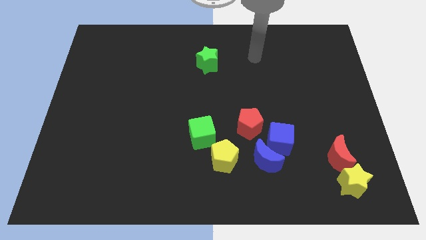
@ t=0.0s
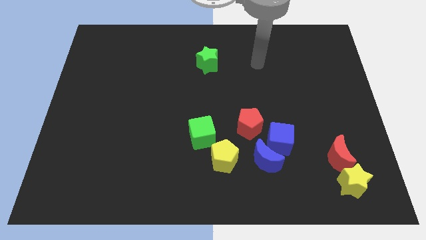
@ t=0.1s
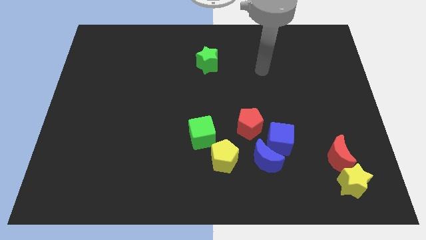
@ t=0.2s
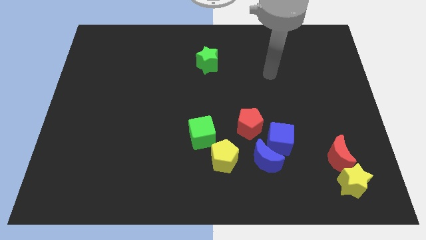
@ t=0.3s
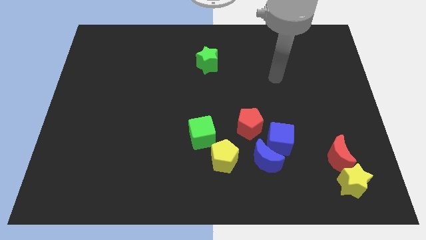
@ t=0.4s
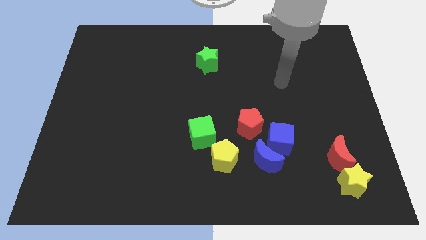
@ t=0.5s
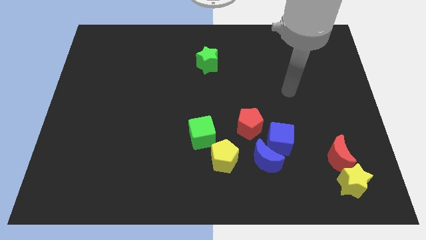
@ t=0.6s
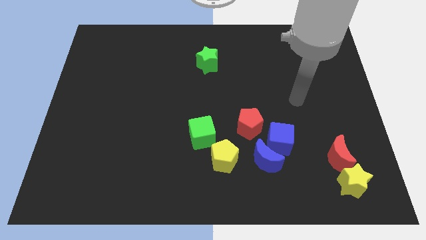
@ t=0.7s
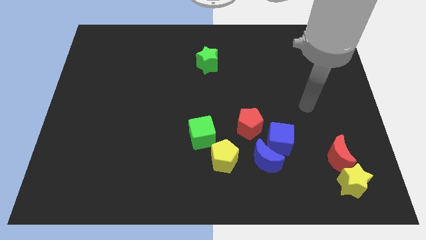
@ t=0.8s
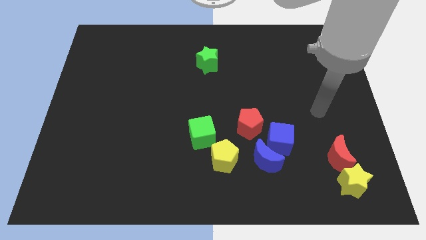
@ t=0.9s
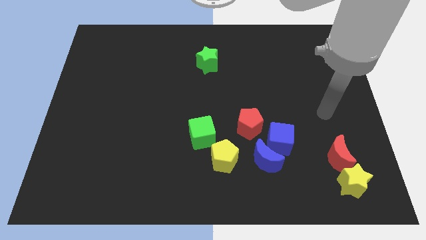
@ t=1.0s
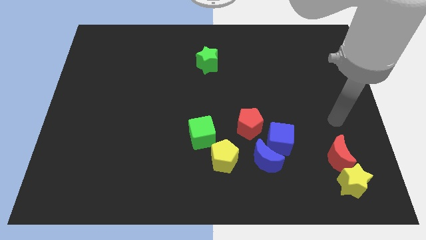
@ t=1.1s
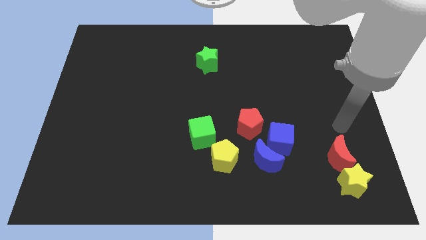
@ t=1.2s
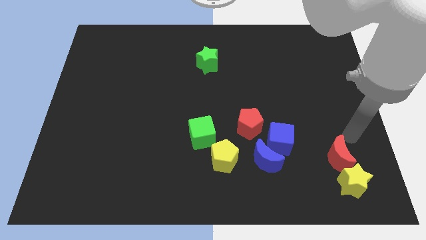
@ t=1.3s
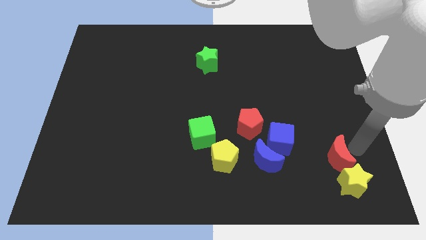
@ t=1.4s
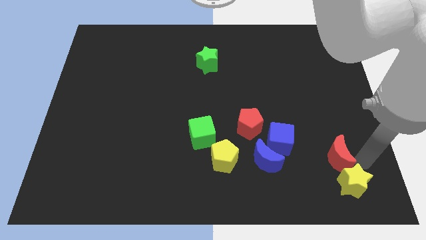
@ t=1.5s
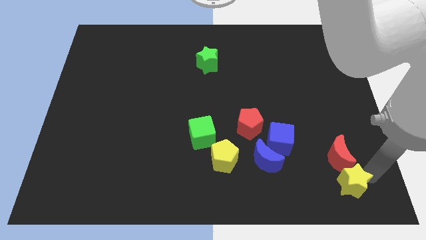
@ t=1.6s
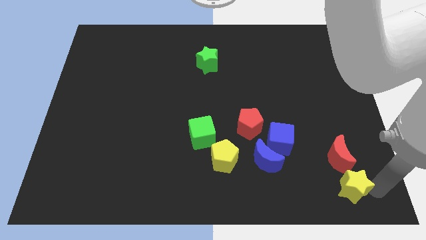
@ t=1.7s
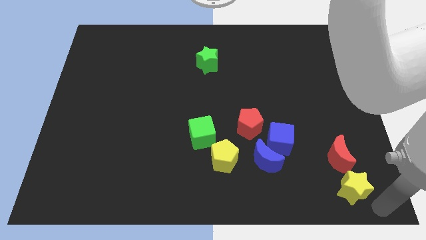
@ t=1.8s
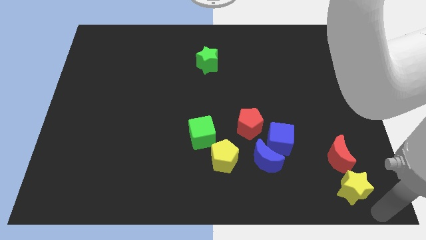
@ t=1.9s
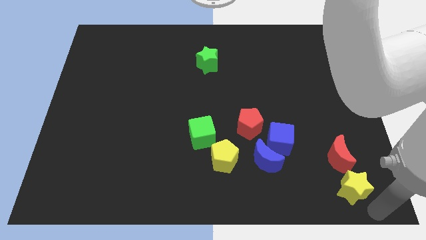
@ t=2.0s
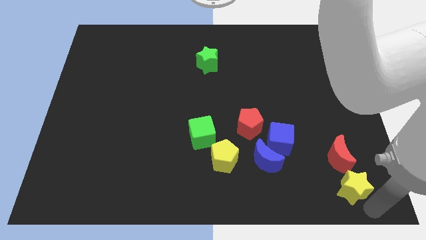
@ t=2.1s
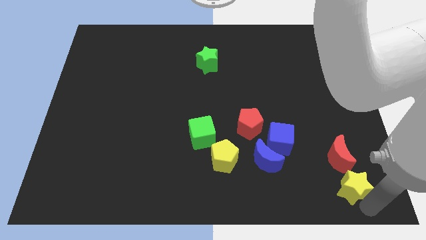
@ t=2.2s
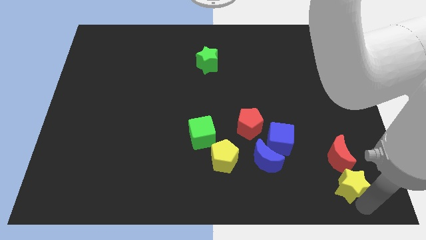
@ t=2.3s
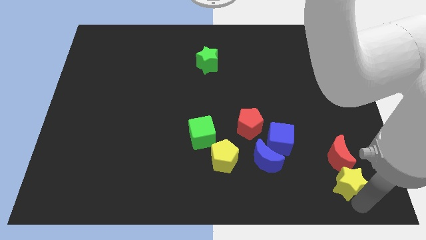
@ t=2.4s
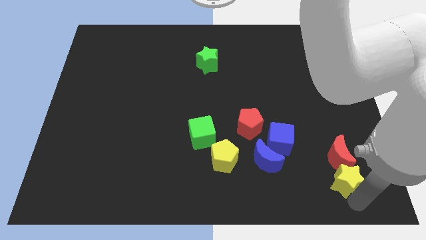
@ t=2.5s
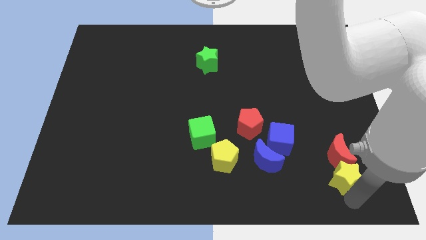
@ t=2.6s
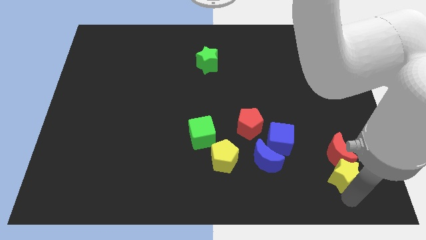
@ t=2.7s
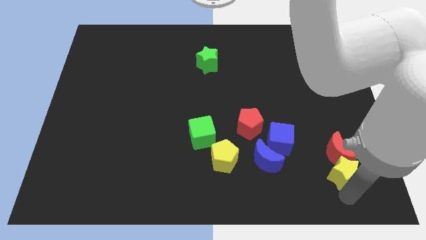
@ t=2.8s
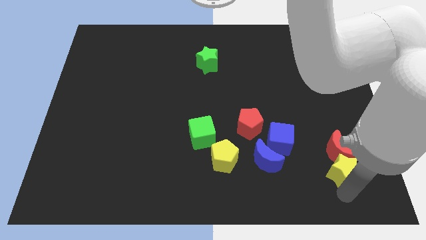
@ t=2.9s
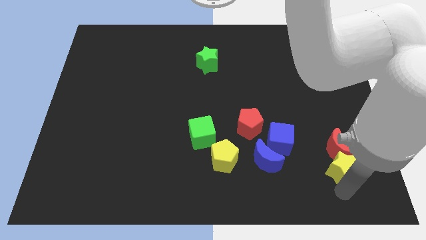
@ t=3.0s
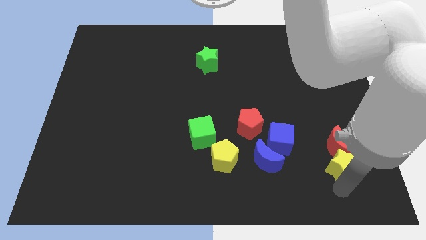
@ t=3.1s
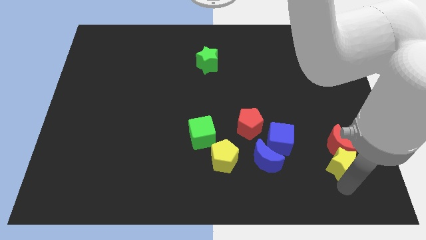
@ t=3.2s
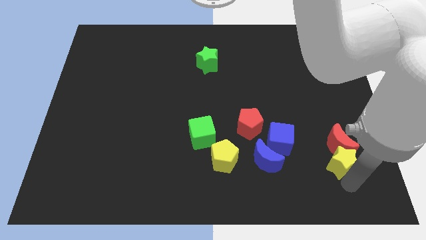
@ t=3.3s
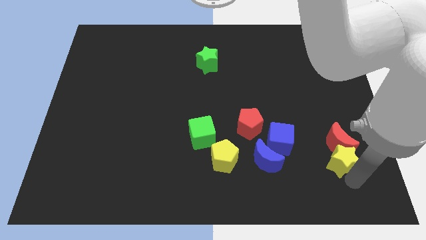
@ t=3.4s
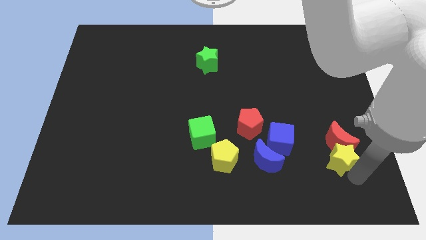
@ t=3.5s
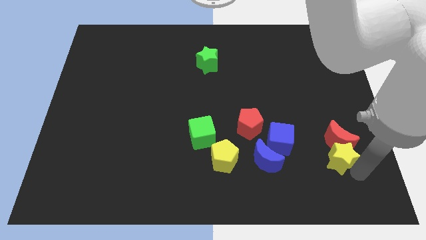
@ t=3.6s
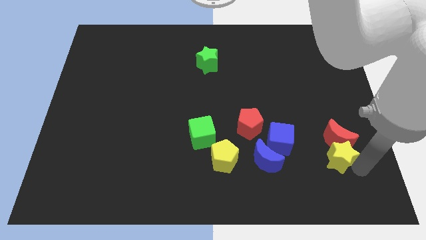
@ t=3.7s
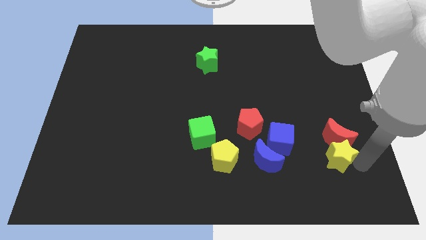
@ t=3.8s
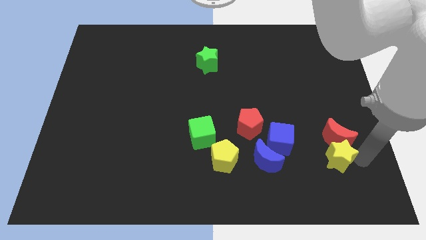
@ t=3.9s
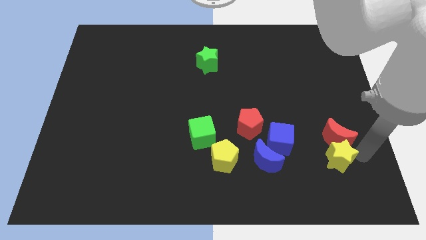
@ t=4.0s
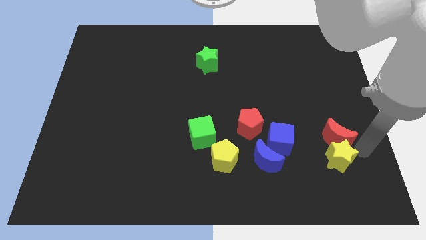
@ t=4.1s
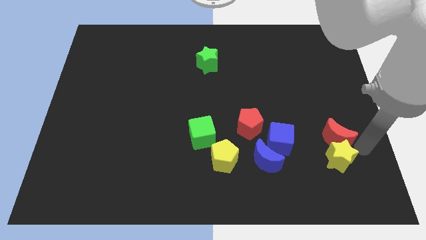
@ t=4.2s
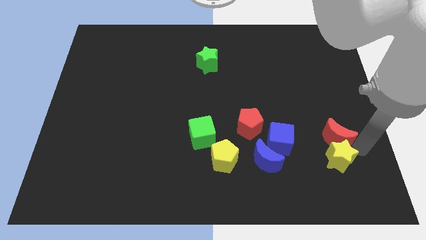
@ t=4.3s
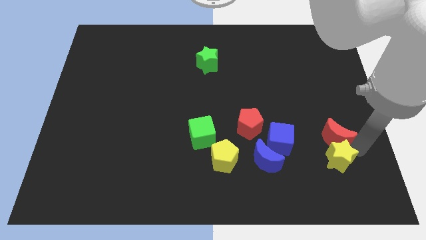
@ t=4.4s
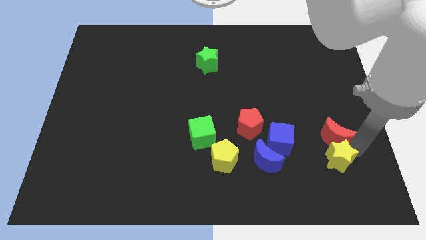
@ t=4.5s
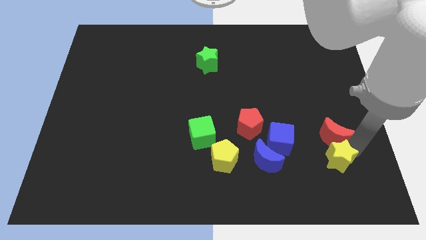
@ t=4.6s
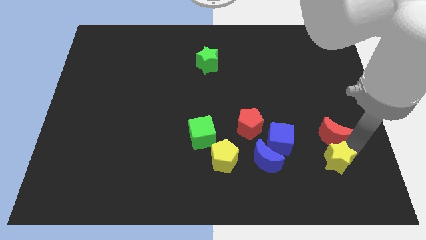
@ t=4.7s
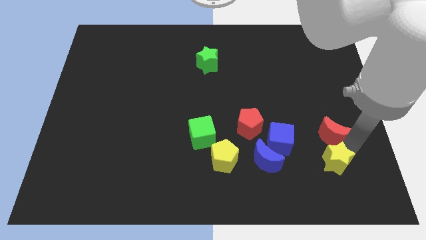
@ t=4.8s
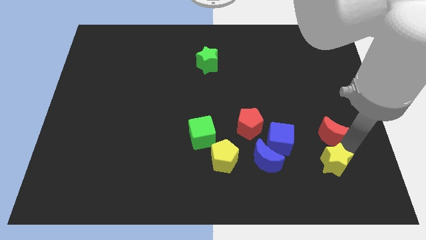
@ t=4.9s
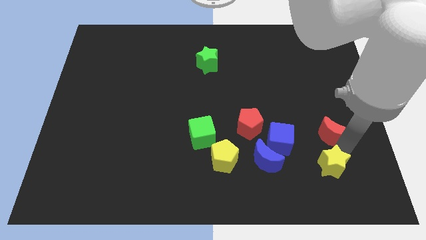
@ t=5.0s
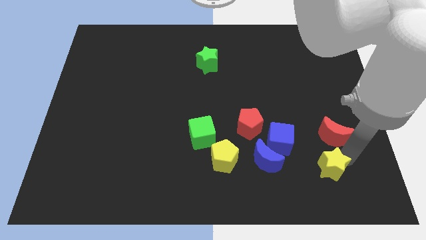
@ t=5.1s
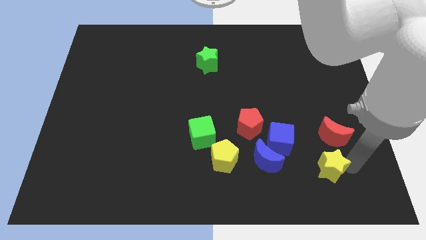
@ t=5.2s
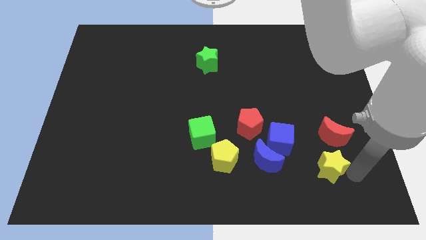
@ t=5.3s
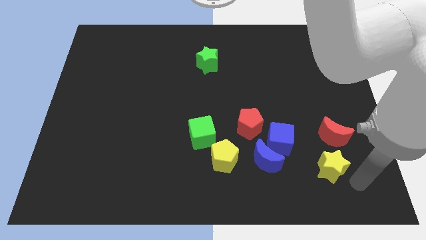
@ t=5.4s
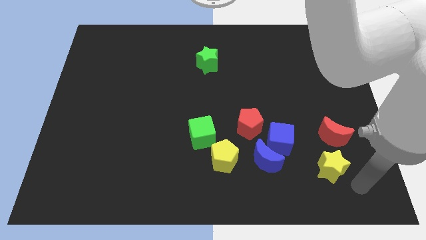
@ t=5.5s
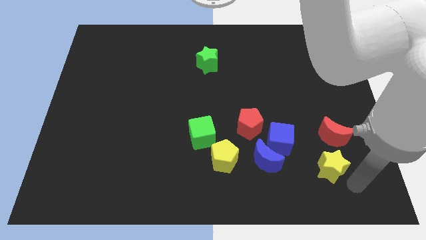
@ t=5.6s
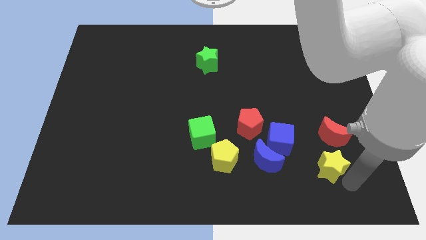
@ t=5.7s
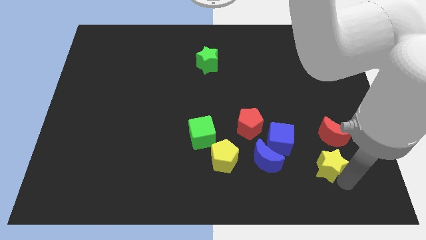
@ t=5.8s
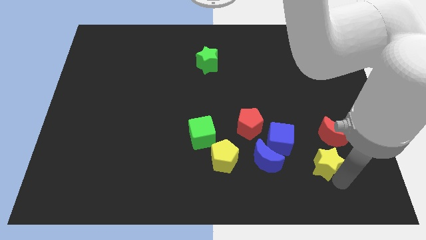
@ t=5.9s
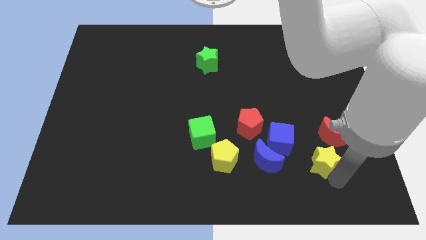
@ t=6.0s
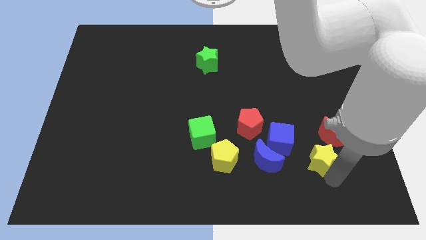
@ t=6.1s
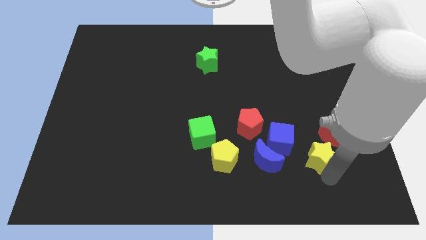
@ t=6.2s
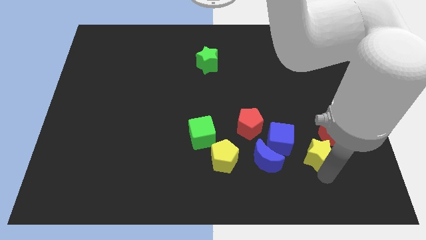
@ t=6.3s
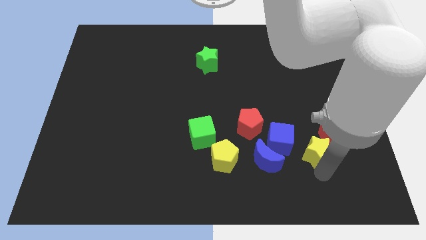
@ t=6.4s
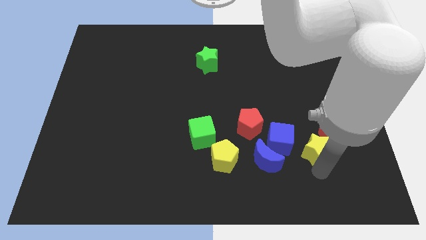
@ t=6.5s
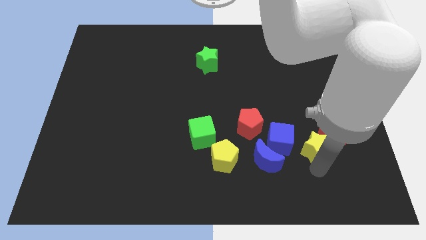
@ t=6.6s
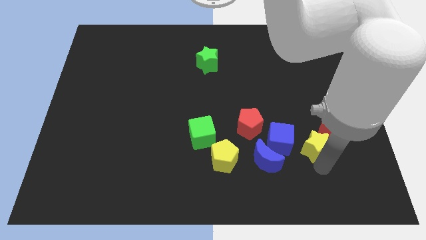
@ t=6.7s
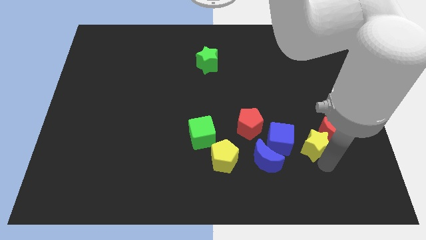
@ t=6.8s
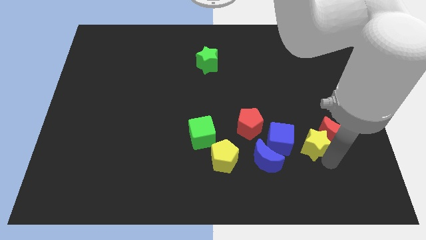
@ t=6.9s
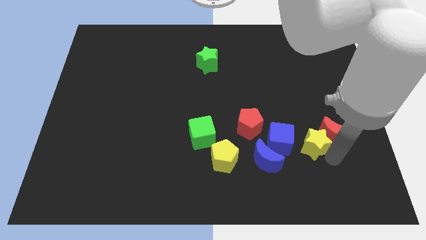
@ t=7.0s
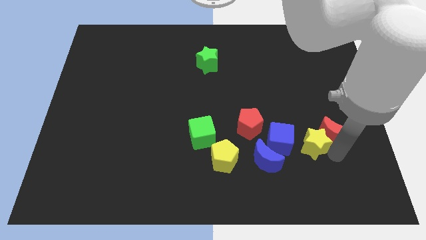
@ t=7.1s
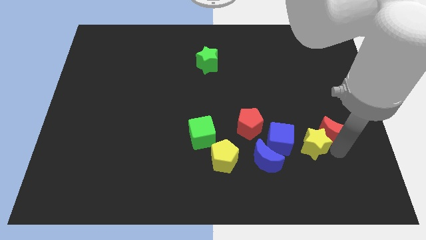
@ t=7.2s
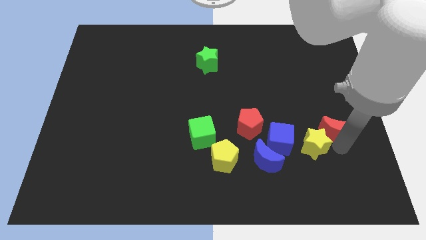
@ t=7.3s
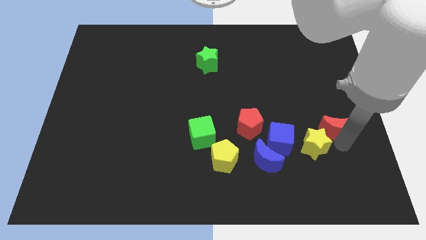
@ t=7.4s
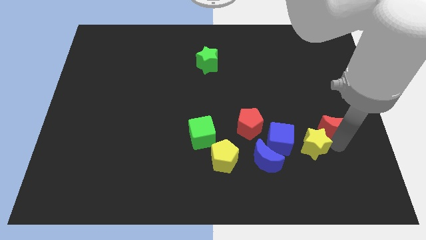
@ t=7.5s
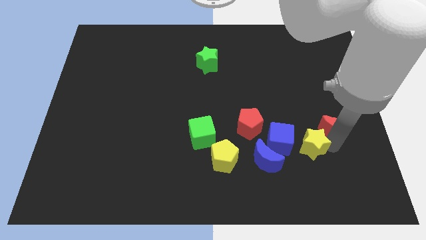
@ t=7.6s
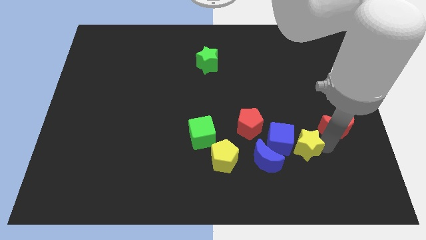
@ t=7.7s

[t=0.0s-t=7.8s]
push the yellow star towards the blue cube

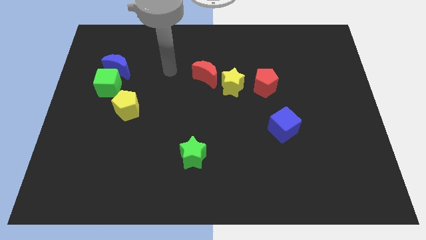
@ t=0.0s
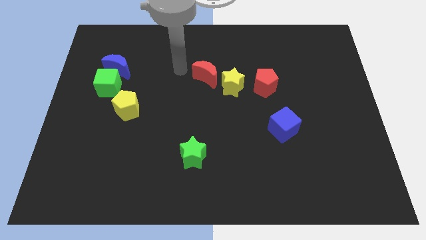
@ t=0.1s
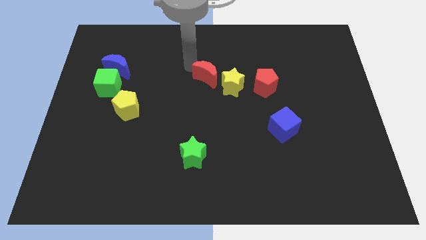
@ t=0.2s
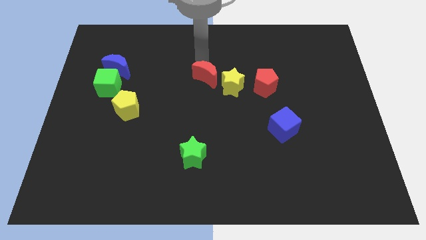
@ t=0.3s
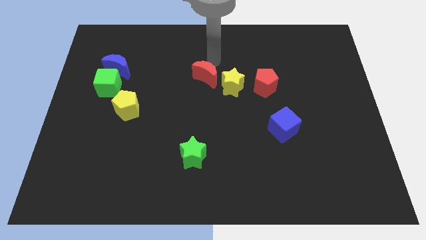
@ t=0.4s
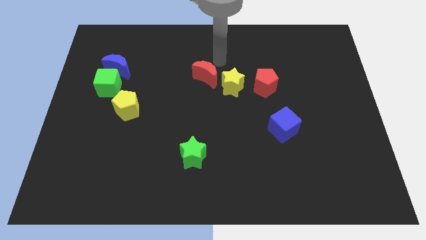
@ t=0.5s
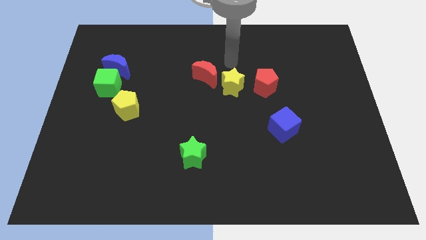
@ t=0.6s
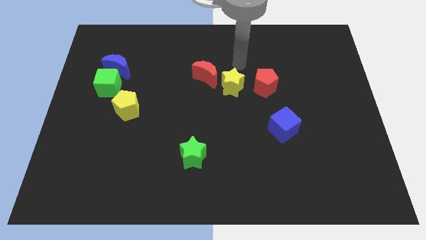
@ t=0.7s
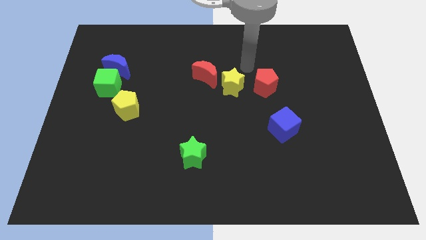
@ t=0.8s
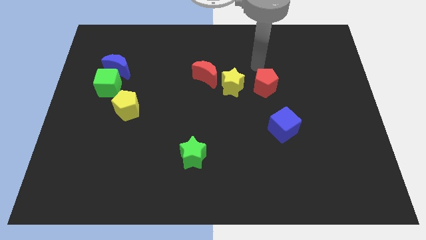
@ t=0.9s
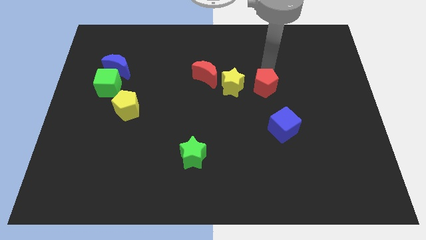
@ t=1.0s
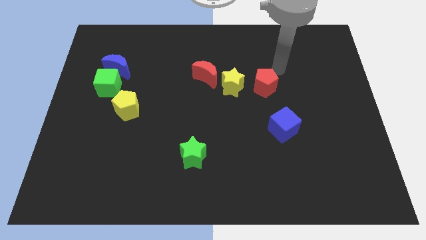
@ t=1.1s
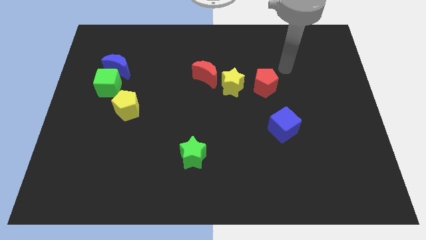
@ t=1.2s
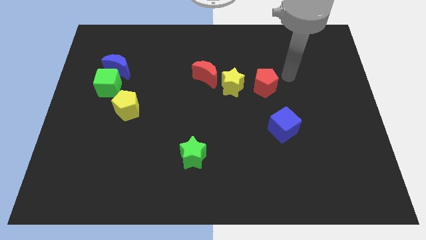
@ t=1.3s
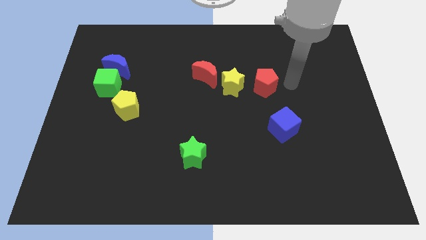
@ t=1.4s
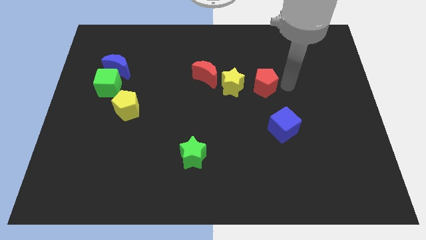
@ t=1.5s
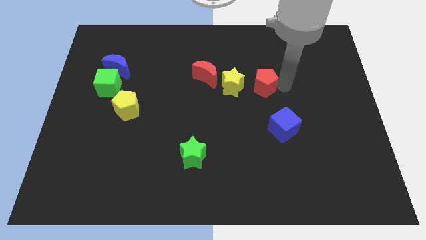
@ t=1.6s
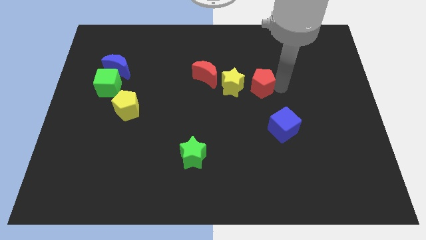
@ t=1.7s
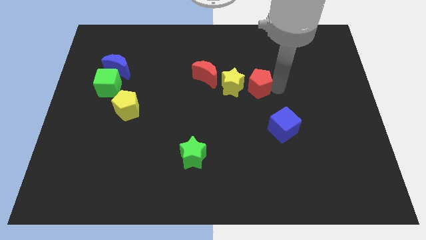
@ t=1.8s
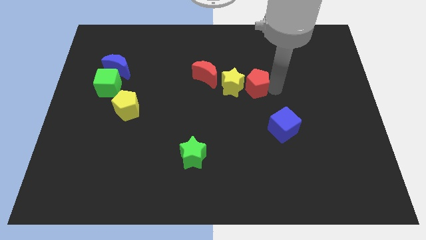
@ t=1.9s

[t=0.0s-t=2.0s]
move the red pentagon towards the yellow star
